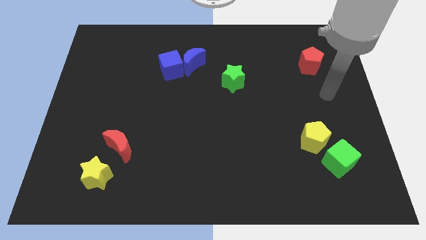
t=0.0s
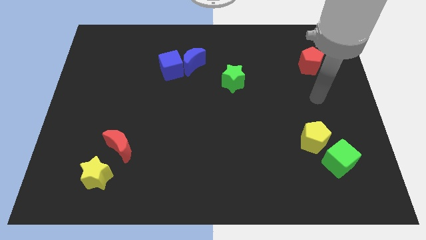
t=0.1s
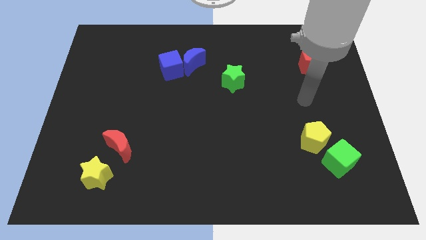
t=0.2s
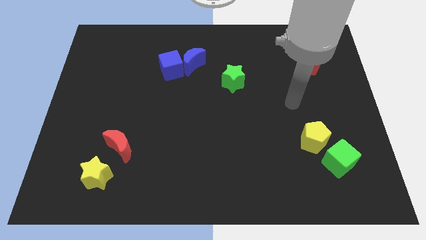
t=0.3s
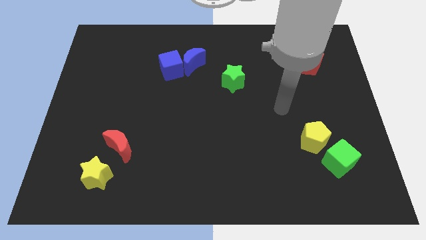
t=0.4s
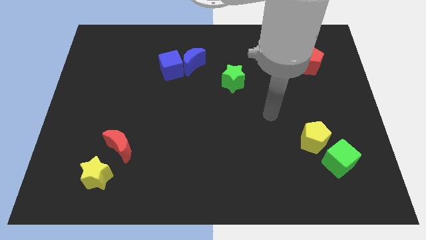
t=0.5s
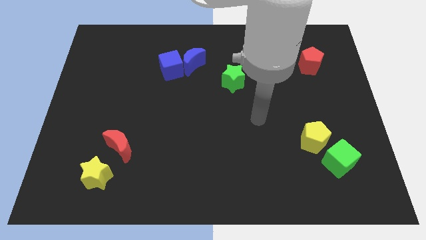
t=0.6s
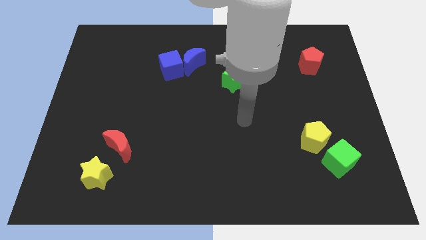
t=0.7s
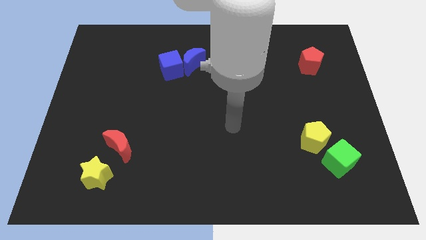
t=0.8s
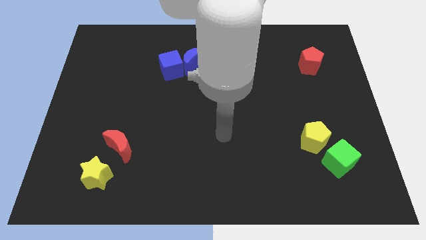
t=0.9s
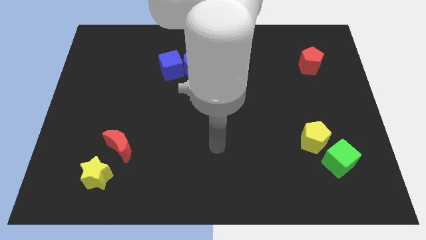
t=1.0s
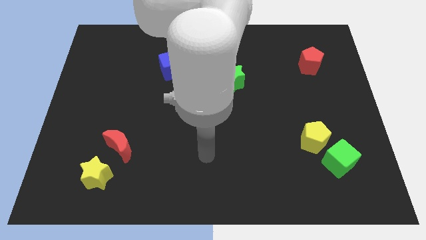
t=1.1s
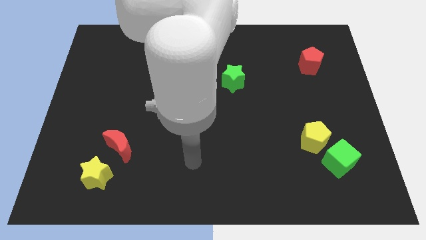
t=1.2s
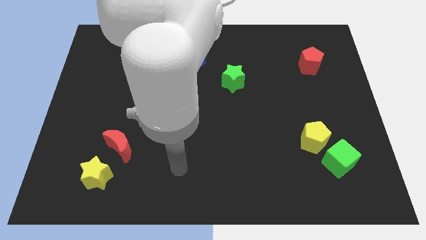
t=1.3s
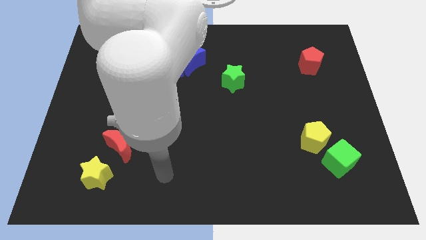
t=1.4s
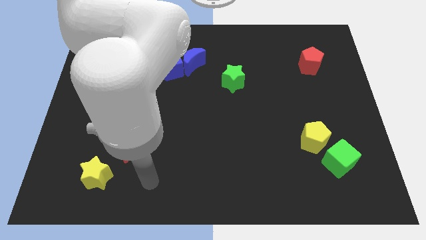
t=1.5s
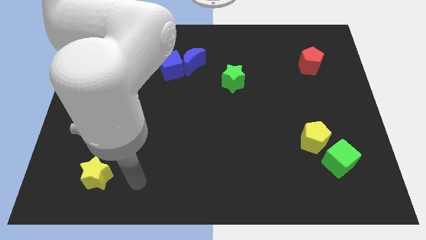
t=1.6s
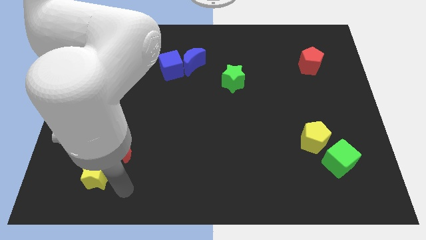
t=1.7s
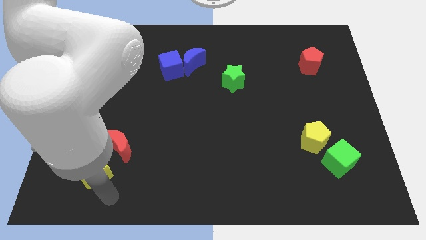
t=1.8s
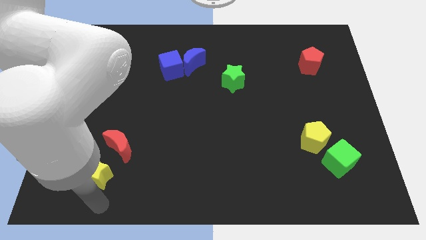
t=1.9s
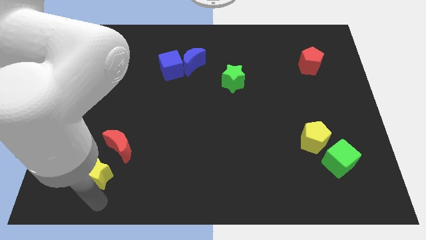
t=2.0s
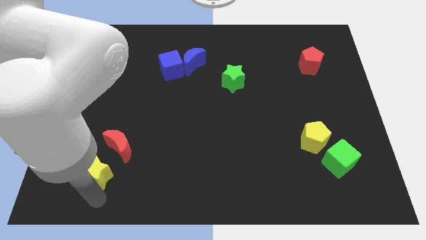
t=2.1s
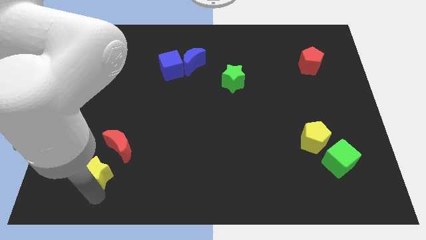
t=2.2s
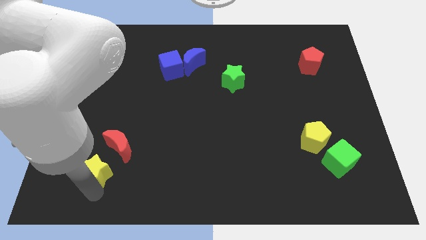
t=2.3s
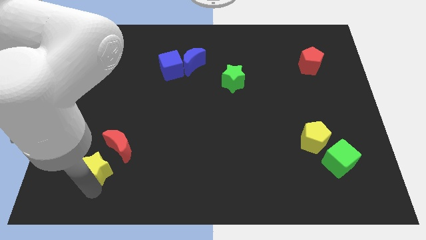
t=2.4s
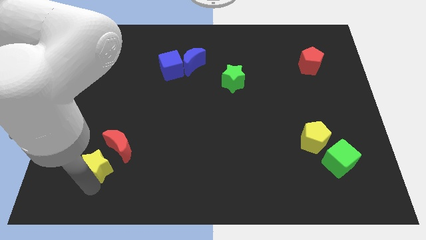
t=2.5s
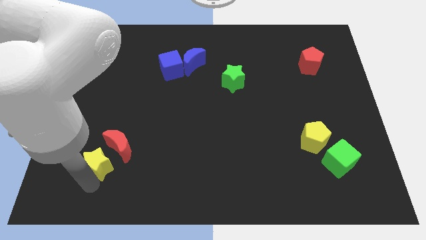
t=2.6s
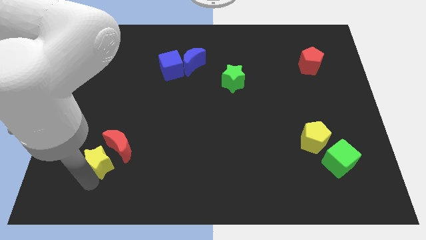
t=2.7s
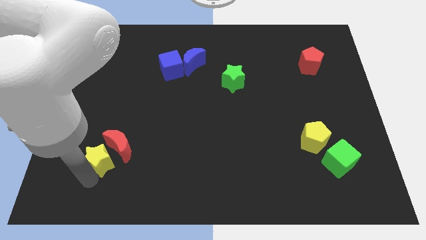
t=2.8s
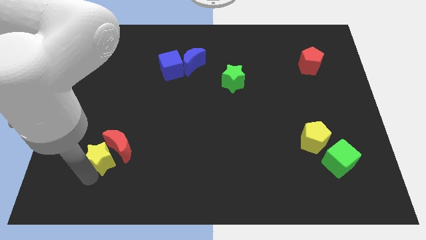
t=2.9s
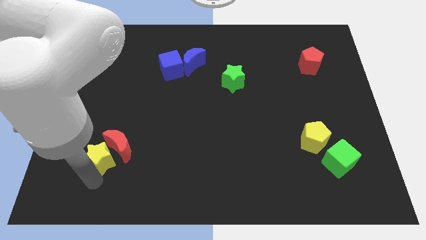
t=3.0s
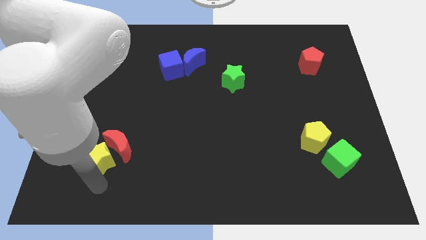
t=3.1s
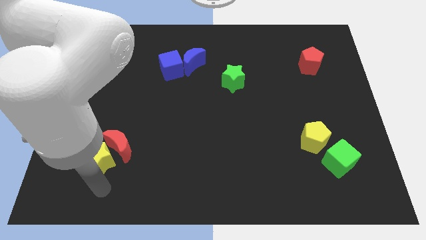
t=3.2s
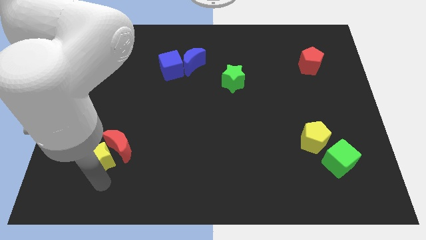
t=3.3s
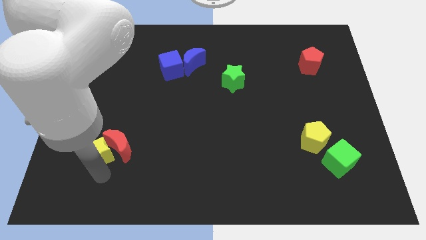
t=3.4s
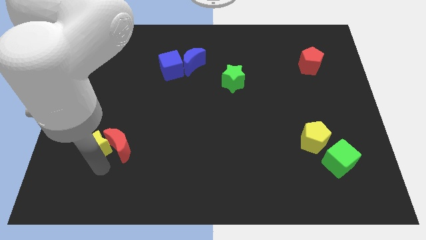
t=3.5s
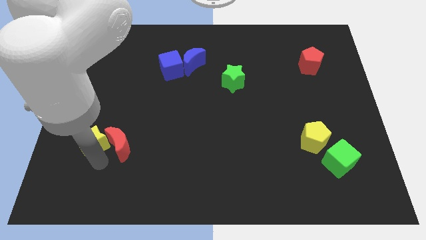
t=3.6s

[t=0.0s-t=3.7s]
slightly move the yellow star upwards

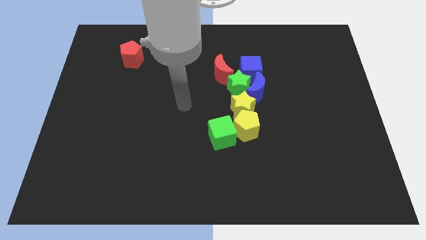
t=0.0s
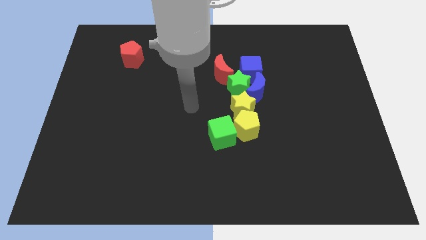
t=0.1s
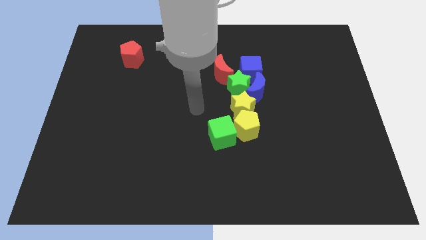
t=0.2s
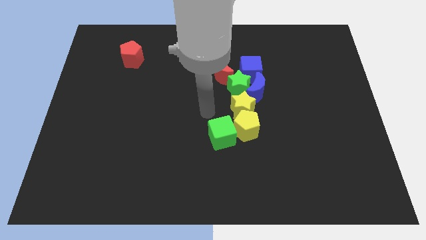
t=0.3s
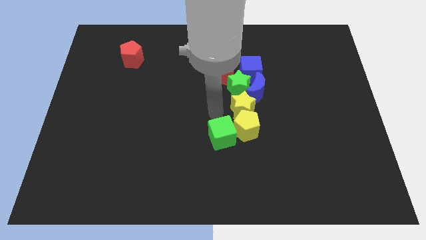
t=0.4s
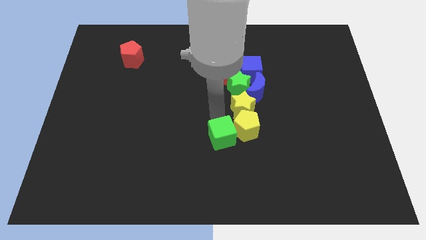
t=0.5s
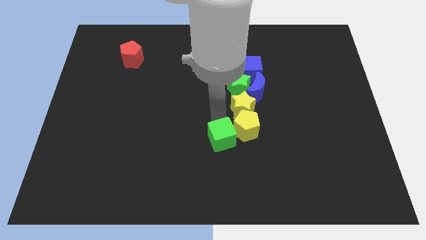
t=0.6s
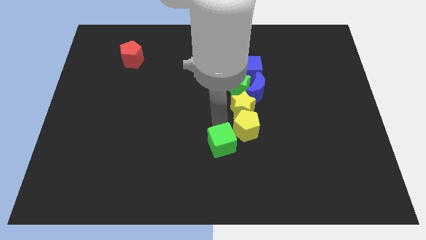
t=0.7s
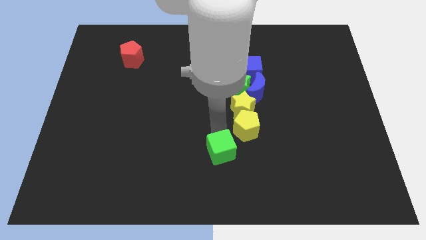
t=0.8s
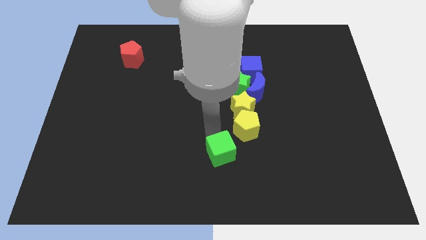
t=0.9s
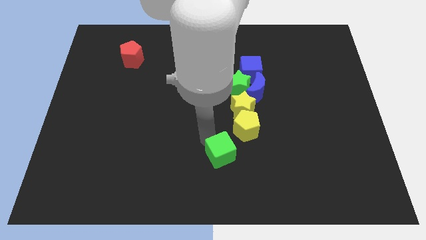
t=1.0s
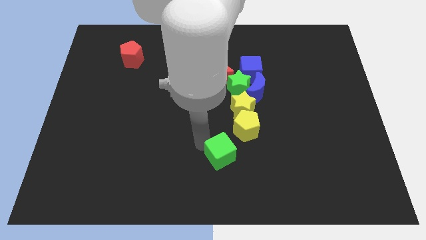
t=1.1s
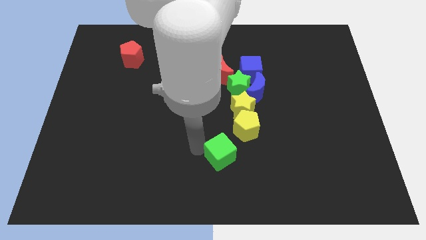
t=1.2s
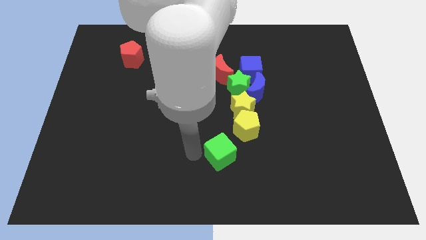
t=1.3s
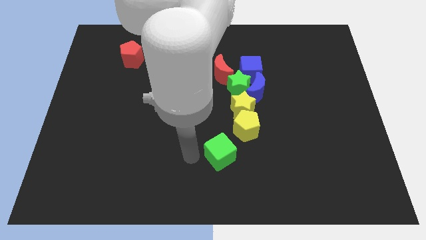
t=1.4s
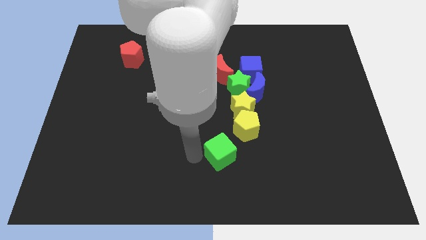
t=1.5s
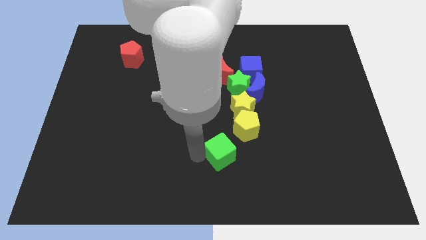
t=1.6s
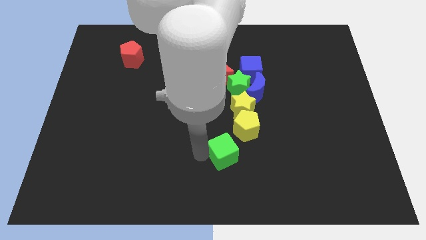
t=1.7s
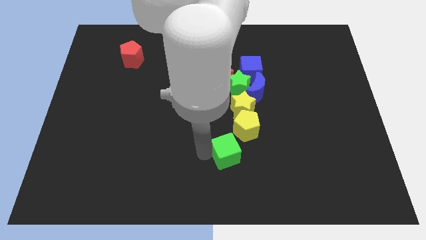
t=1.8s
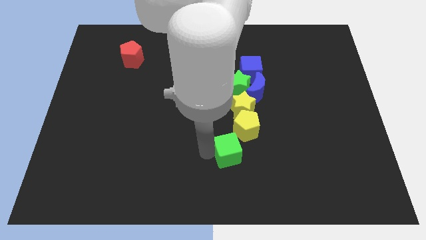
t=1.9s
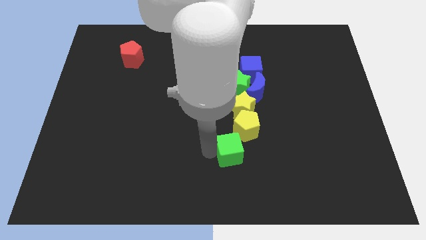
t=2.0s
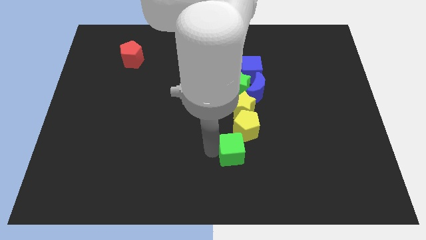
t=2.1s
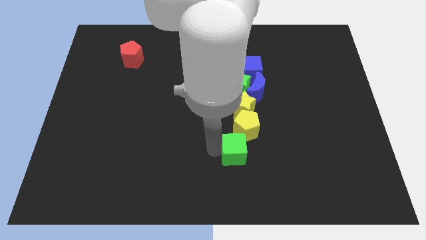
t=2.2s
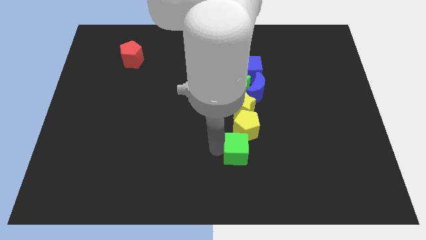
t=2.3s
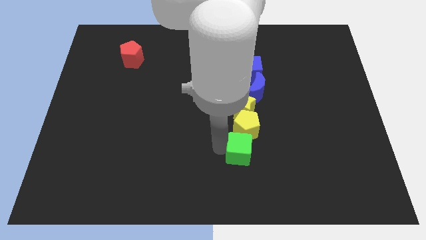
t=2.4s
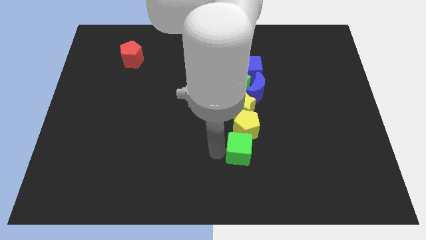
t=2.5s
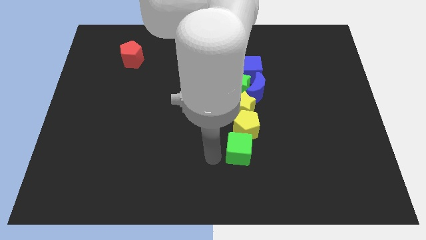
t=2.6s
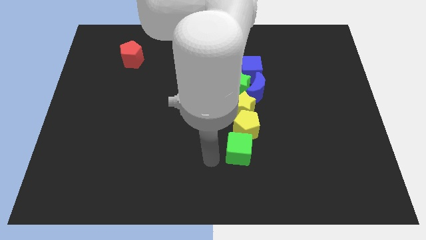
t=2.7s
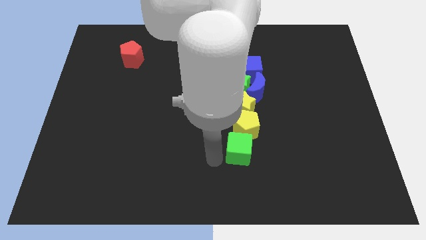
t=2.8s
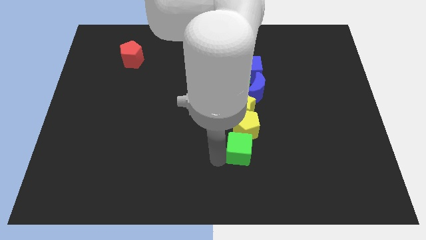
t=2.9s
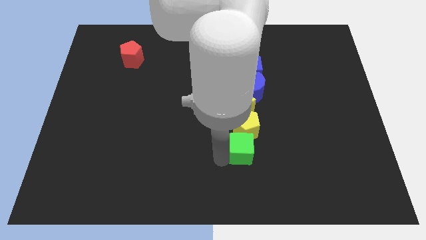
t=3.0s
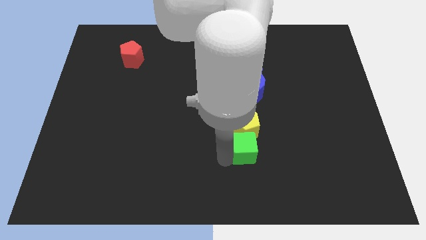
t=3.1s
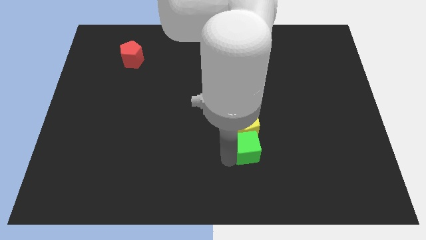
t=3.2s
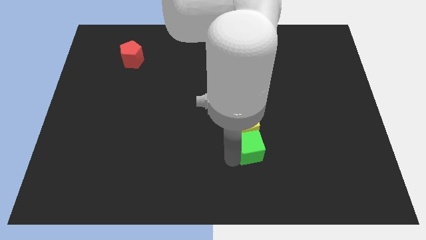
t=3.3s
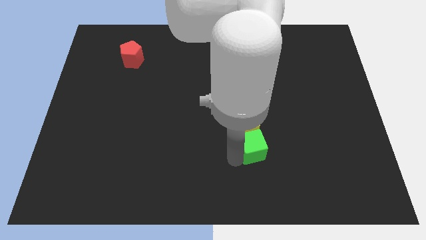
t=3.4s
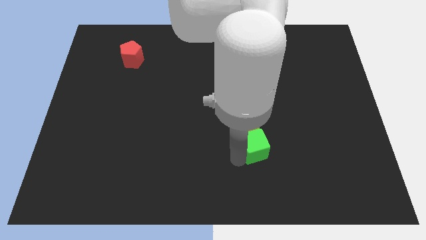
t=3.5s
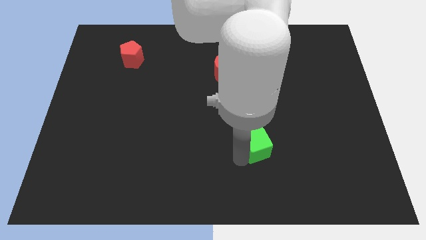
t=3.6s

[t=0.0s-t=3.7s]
slightly slide the green cube to the right

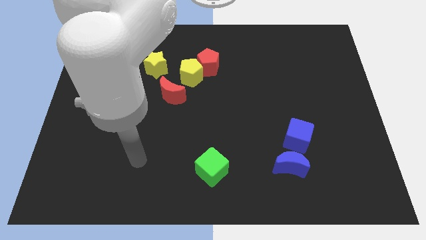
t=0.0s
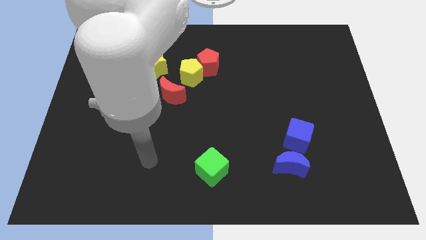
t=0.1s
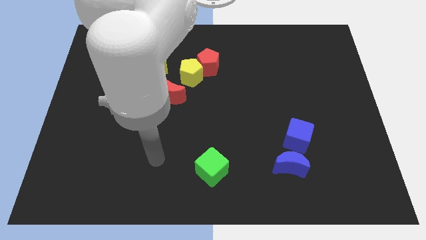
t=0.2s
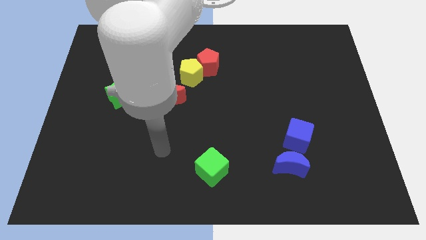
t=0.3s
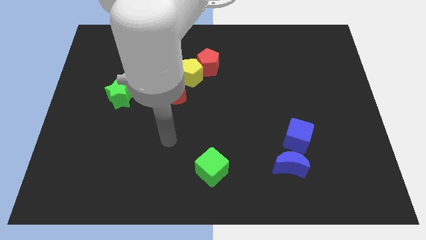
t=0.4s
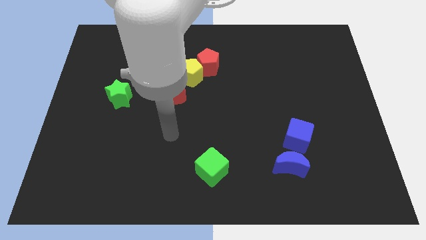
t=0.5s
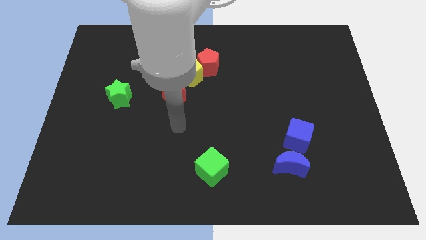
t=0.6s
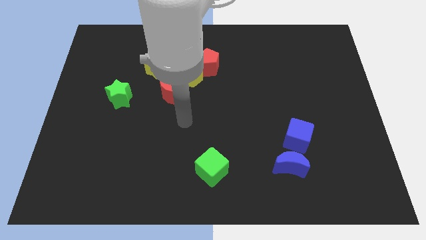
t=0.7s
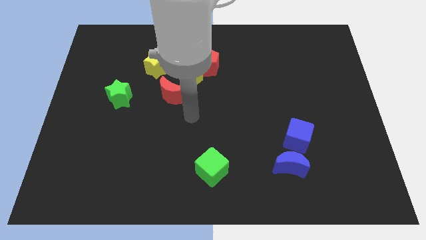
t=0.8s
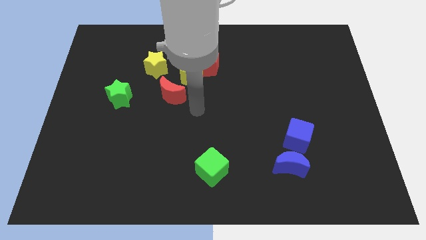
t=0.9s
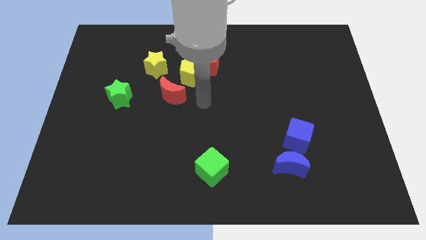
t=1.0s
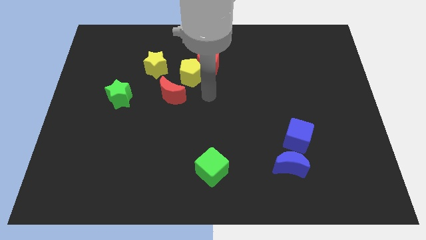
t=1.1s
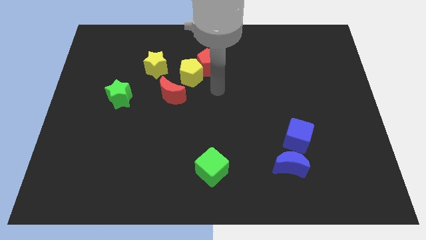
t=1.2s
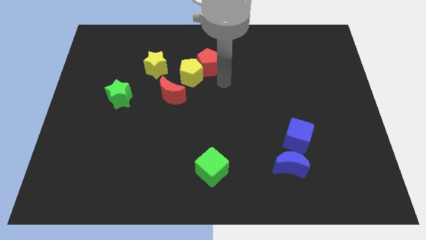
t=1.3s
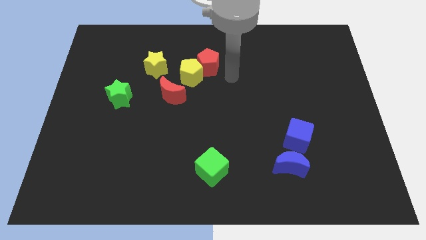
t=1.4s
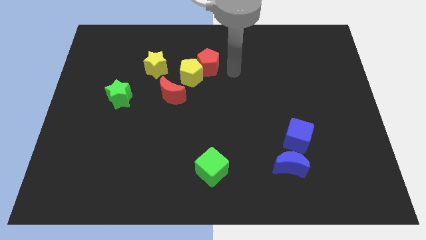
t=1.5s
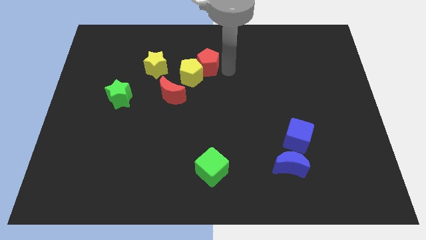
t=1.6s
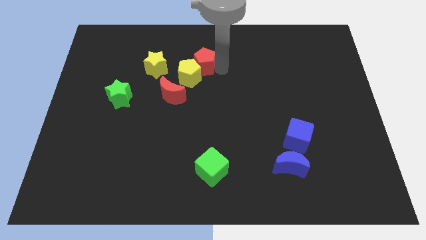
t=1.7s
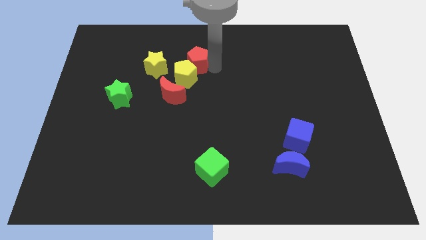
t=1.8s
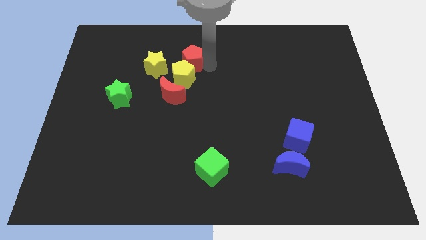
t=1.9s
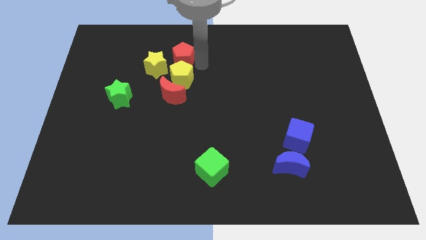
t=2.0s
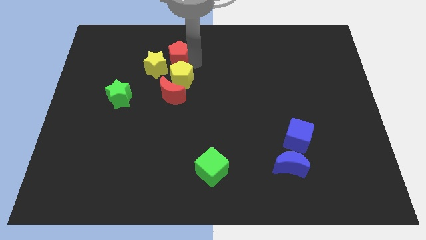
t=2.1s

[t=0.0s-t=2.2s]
slide the red pentagon to the left a bit
